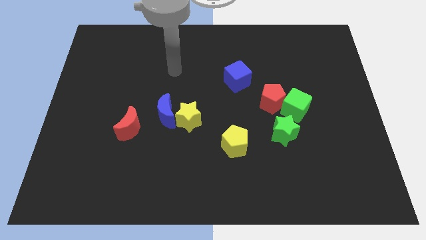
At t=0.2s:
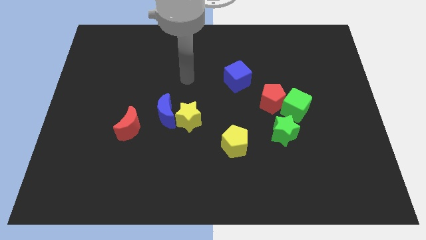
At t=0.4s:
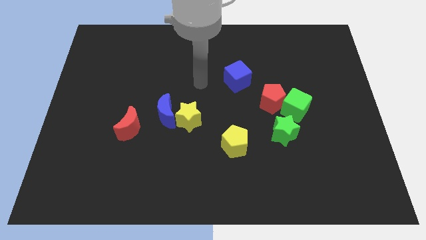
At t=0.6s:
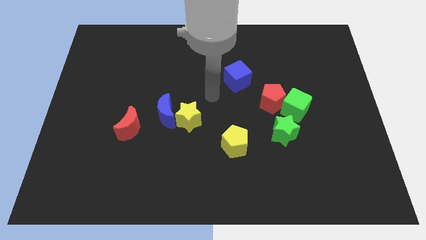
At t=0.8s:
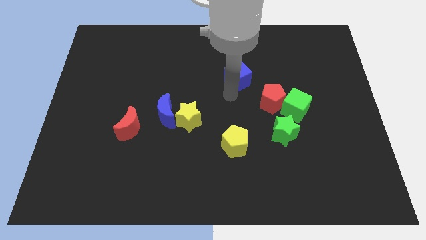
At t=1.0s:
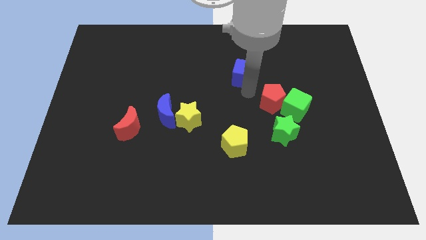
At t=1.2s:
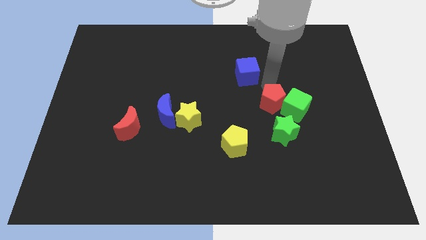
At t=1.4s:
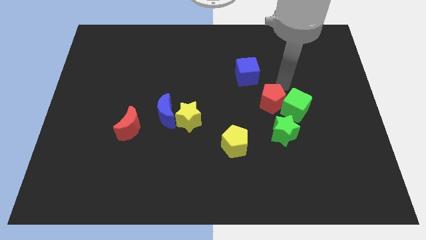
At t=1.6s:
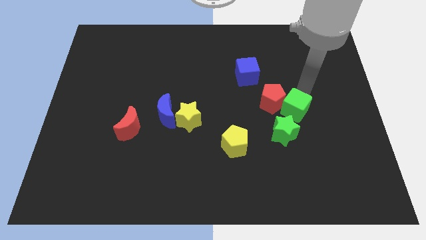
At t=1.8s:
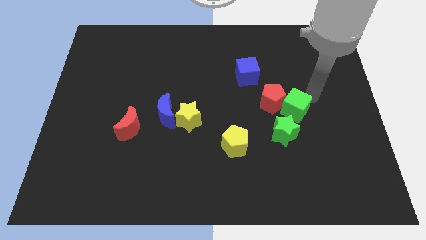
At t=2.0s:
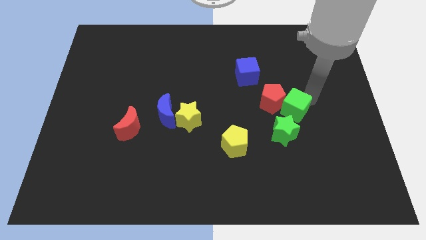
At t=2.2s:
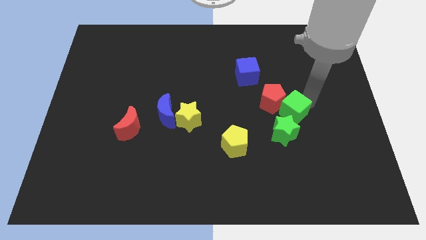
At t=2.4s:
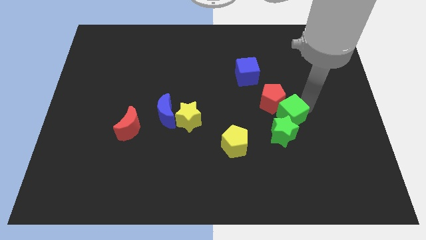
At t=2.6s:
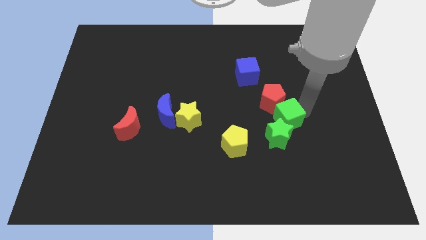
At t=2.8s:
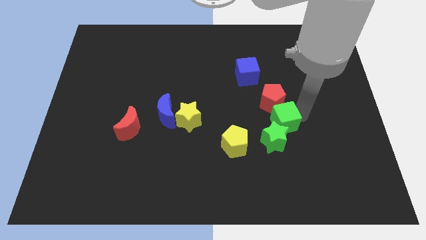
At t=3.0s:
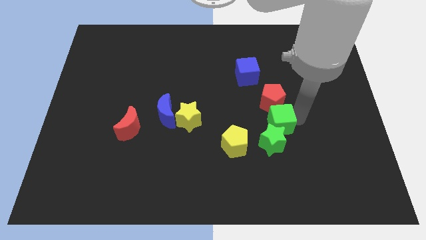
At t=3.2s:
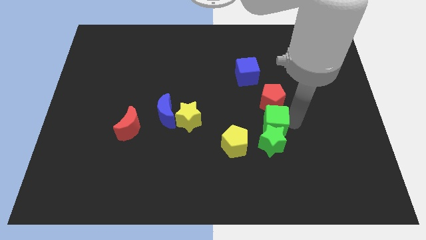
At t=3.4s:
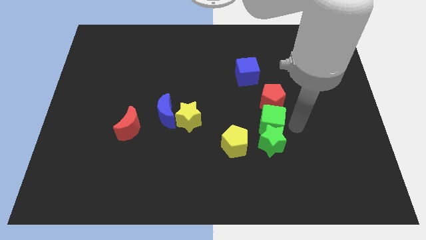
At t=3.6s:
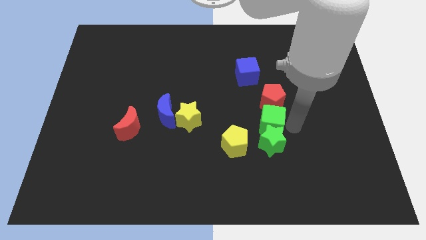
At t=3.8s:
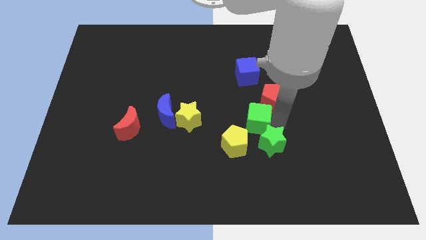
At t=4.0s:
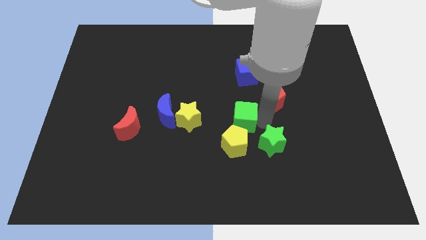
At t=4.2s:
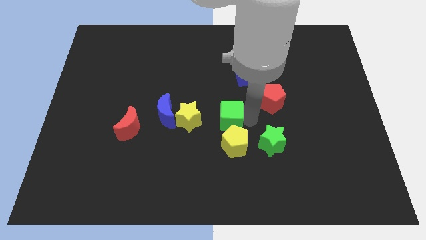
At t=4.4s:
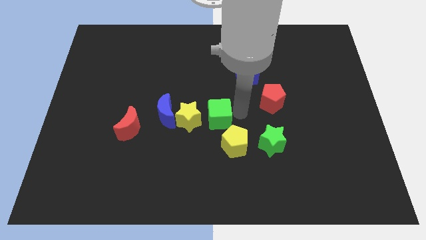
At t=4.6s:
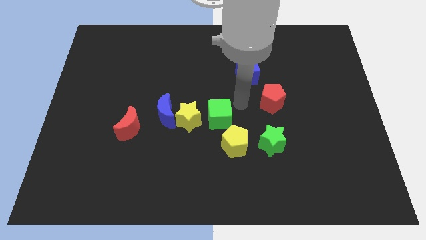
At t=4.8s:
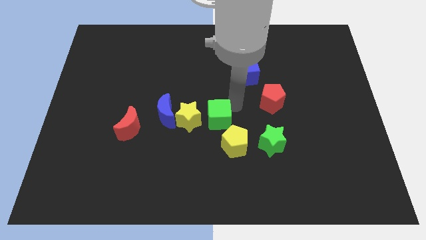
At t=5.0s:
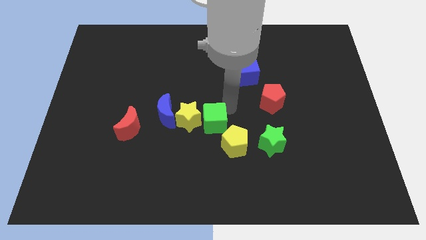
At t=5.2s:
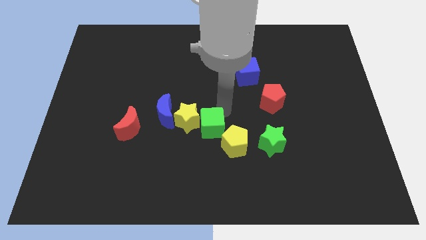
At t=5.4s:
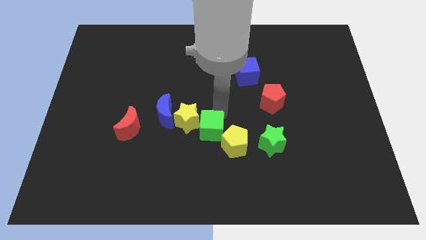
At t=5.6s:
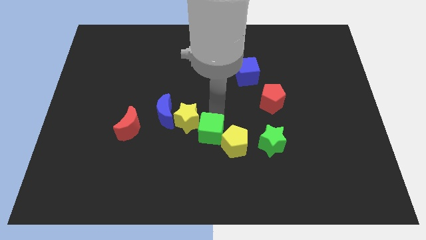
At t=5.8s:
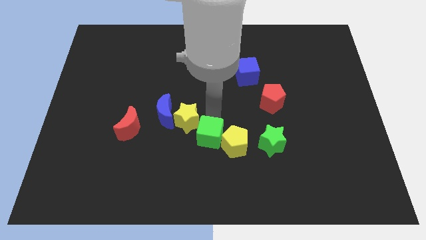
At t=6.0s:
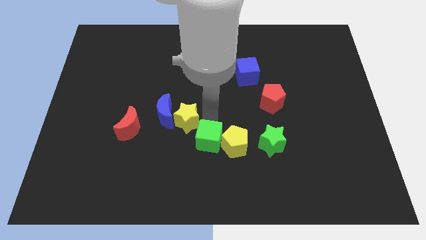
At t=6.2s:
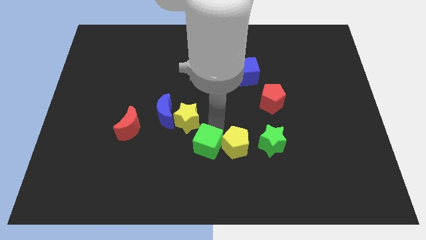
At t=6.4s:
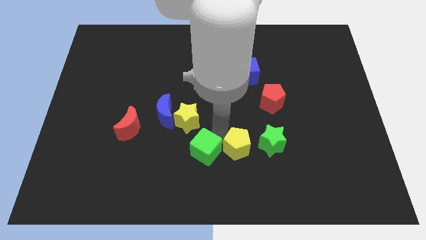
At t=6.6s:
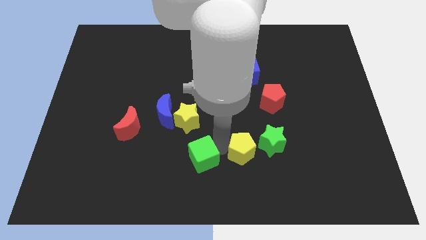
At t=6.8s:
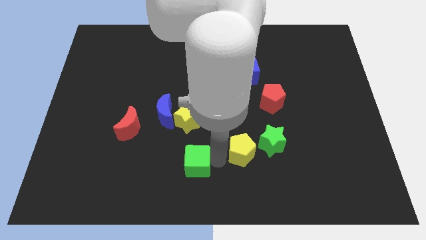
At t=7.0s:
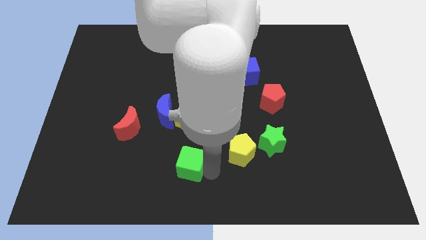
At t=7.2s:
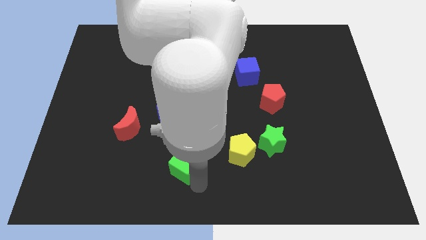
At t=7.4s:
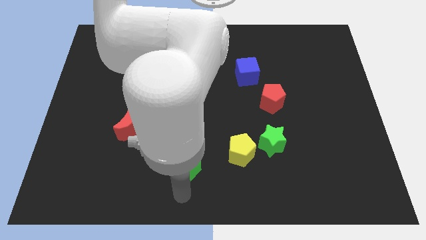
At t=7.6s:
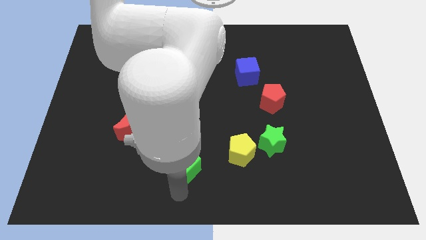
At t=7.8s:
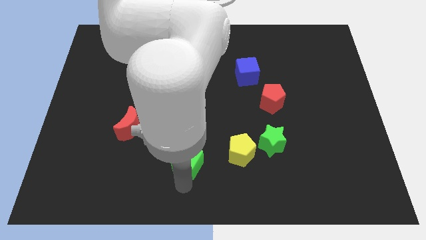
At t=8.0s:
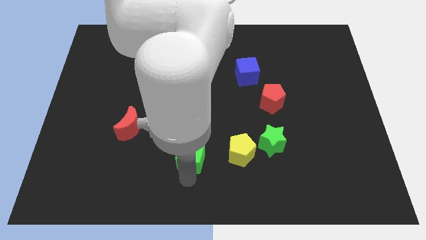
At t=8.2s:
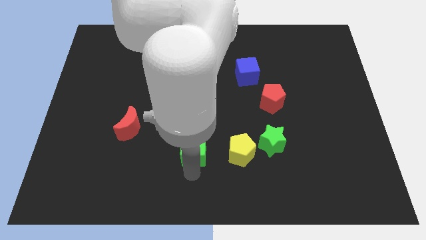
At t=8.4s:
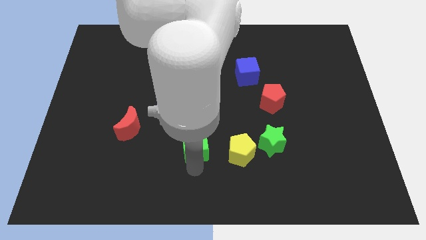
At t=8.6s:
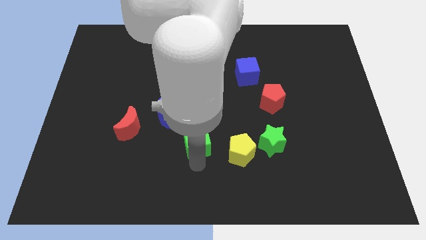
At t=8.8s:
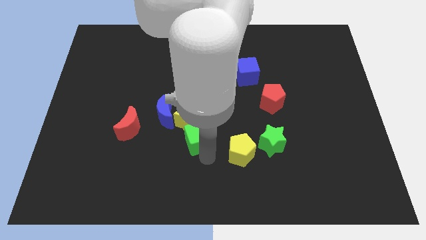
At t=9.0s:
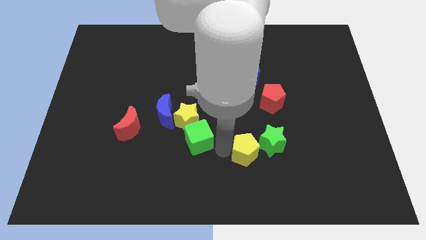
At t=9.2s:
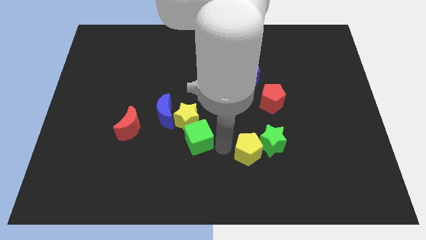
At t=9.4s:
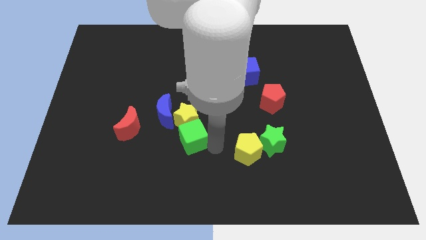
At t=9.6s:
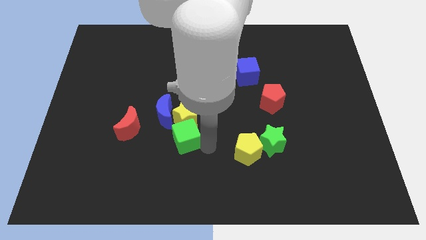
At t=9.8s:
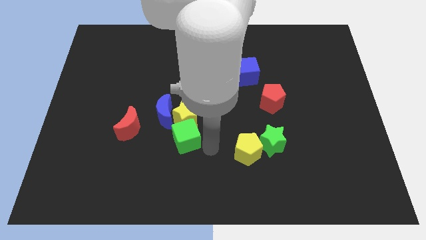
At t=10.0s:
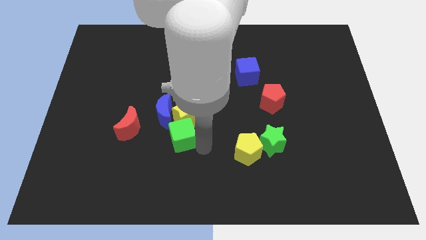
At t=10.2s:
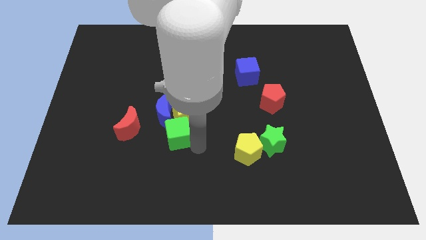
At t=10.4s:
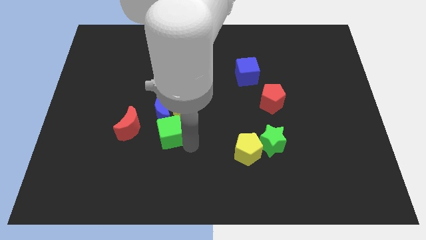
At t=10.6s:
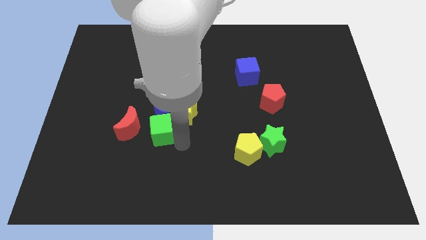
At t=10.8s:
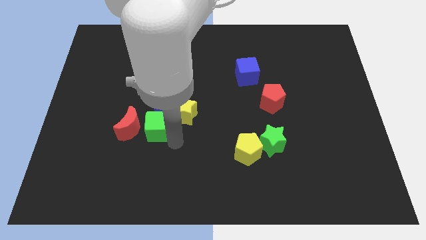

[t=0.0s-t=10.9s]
slide the green cube close to the red moon

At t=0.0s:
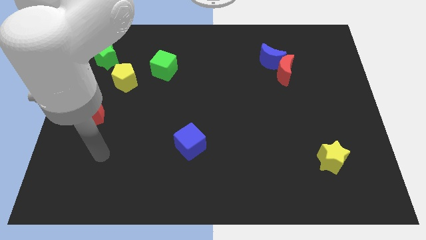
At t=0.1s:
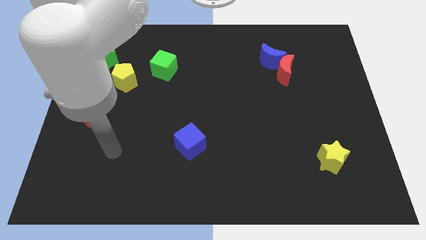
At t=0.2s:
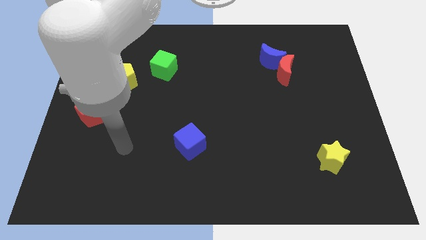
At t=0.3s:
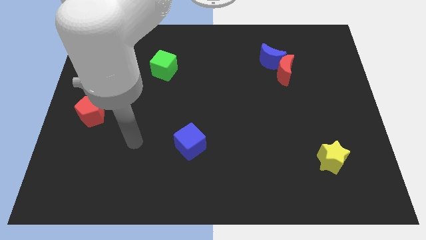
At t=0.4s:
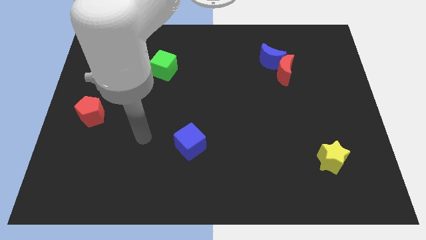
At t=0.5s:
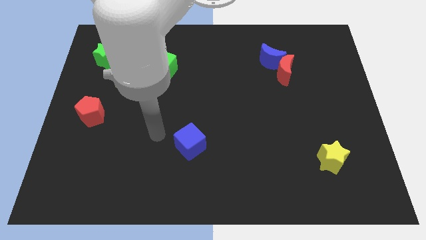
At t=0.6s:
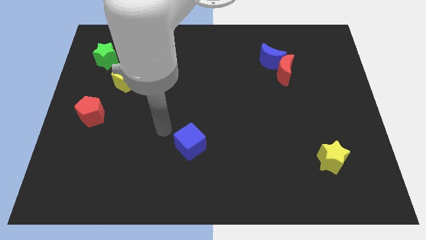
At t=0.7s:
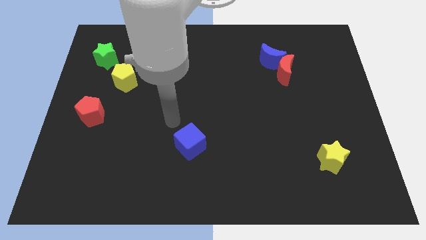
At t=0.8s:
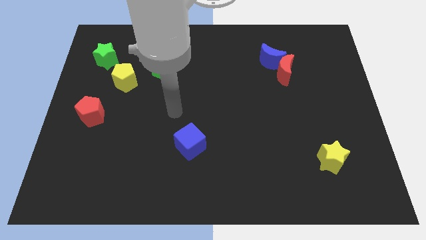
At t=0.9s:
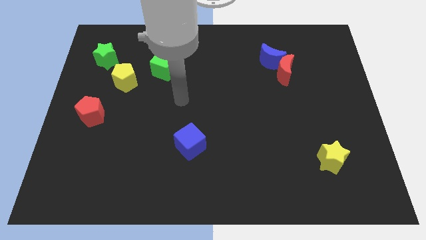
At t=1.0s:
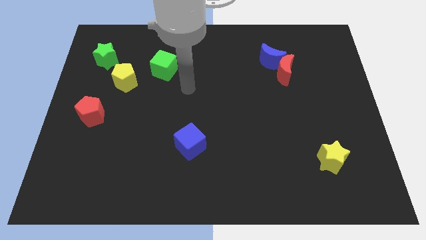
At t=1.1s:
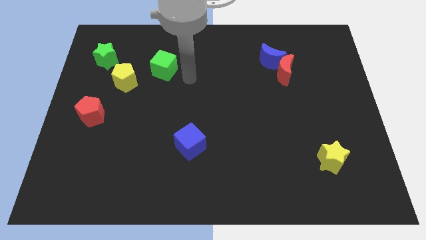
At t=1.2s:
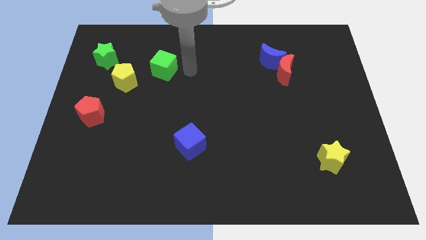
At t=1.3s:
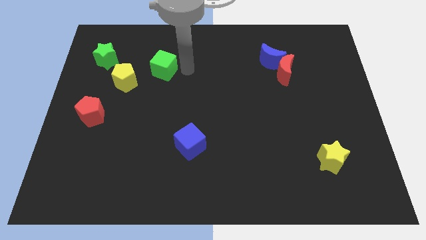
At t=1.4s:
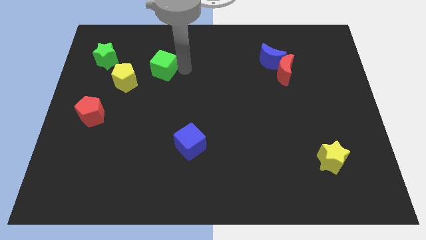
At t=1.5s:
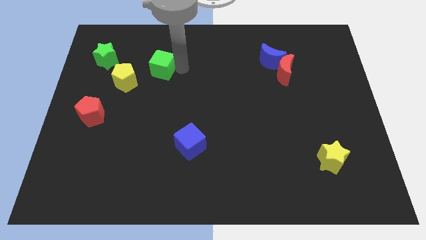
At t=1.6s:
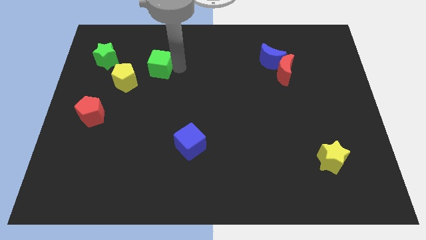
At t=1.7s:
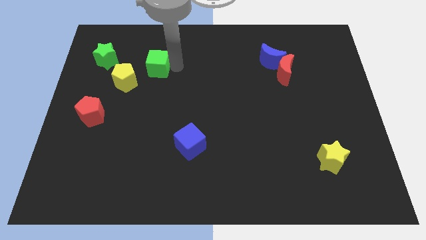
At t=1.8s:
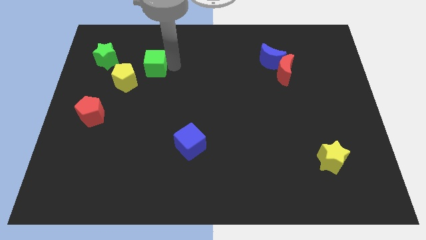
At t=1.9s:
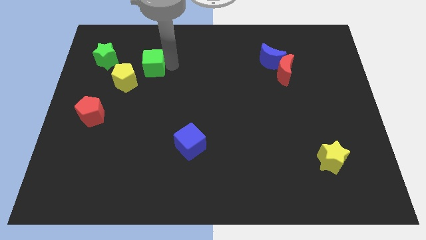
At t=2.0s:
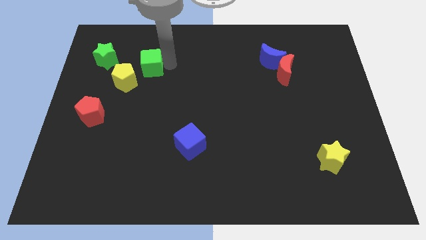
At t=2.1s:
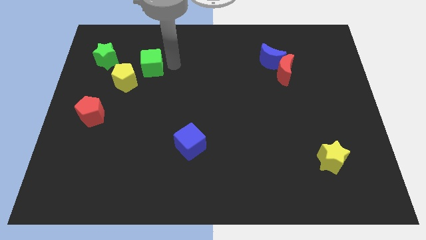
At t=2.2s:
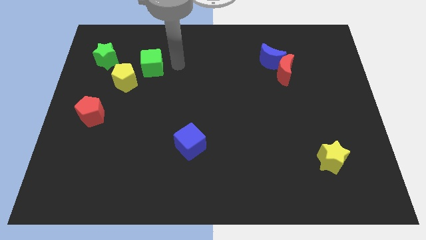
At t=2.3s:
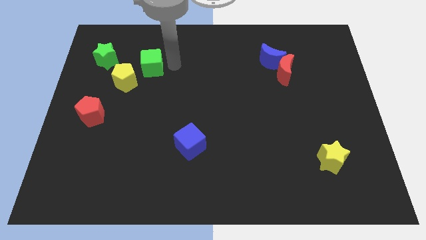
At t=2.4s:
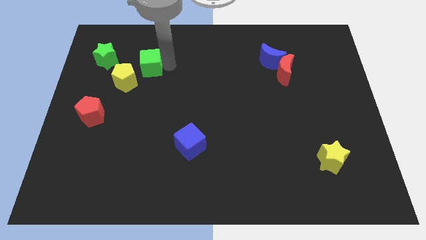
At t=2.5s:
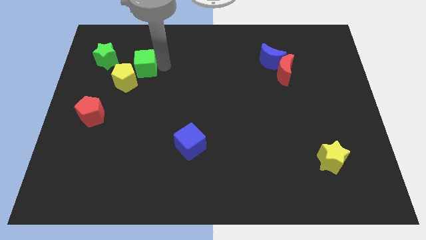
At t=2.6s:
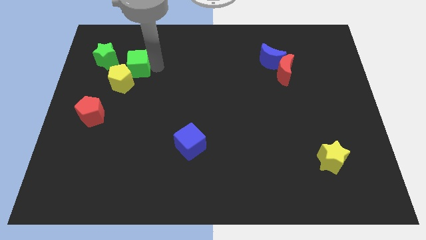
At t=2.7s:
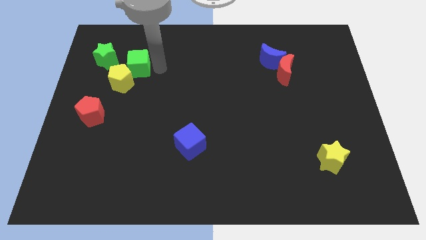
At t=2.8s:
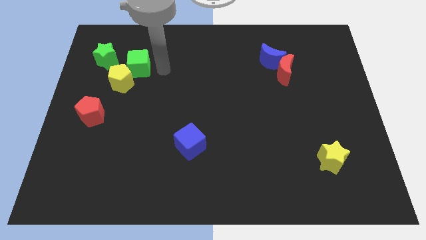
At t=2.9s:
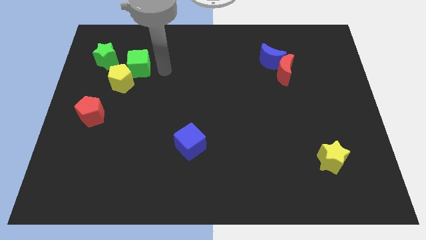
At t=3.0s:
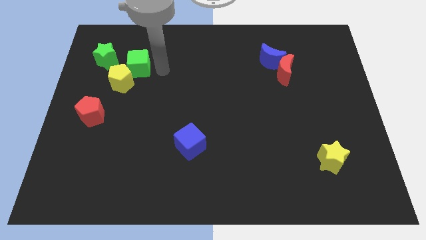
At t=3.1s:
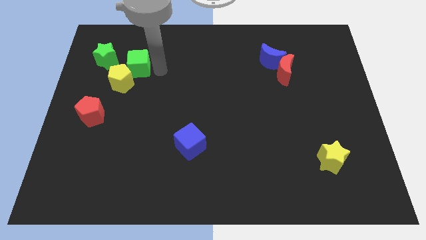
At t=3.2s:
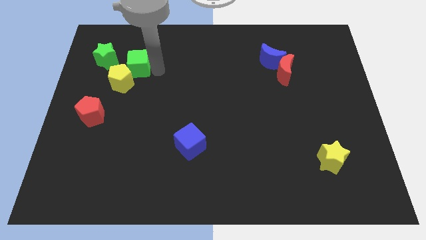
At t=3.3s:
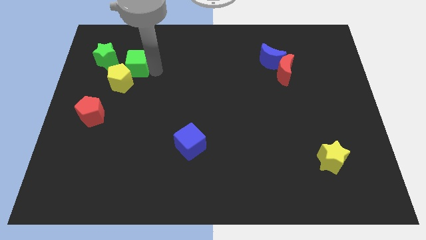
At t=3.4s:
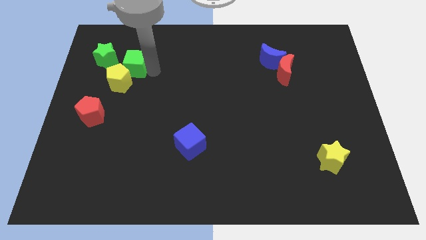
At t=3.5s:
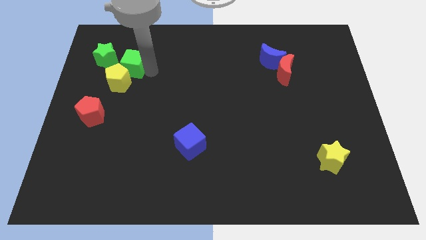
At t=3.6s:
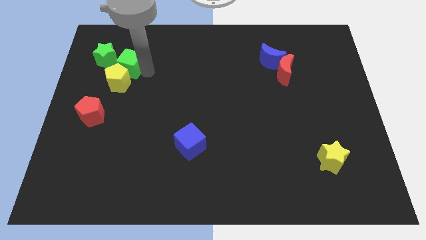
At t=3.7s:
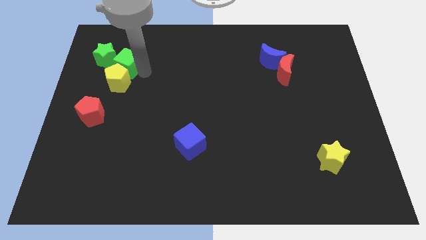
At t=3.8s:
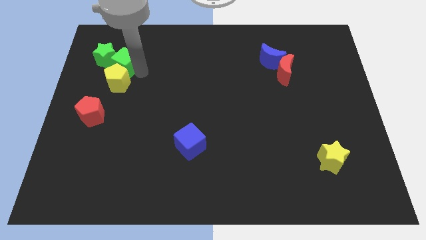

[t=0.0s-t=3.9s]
slide the green cube close to the green star
